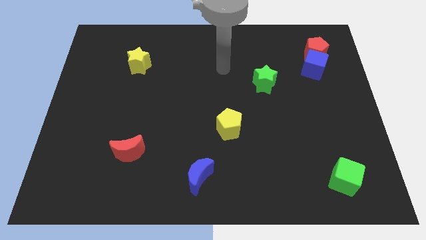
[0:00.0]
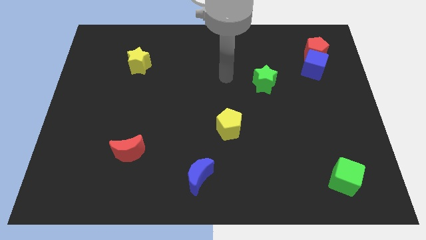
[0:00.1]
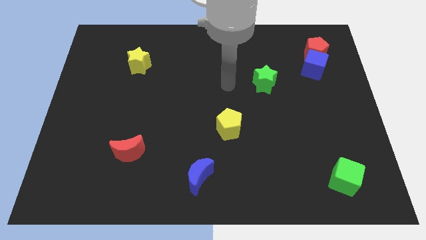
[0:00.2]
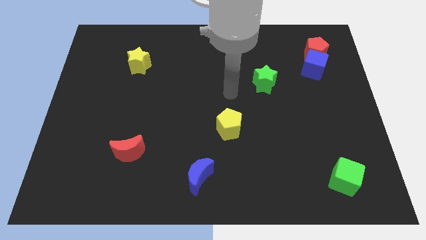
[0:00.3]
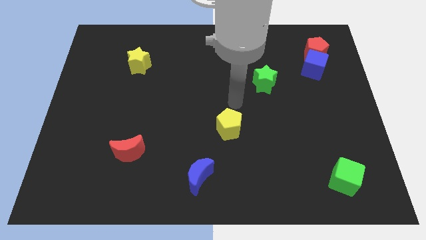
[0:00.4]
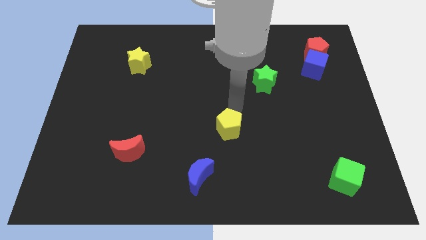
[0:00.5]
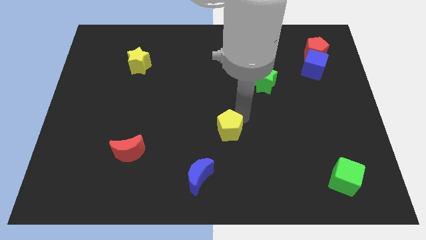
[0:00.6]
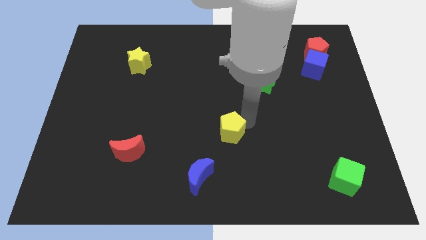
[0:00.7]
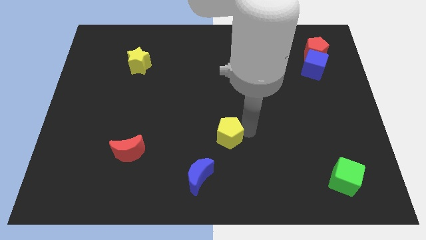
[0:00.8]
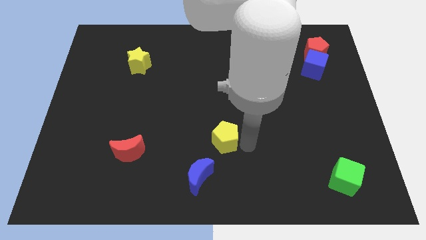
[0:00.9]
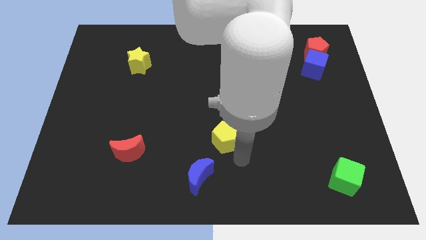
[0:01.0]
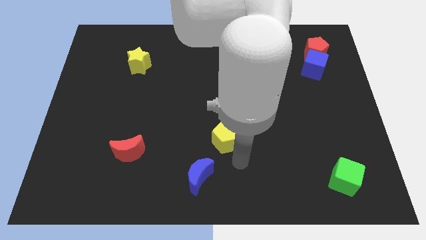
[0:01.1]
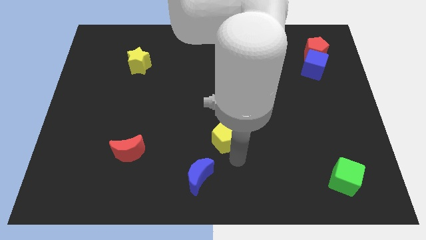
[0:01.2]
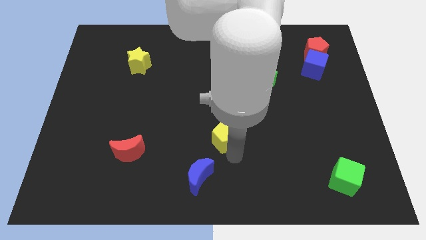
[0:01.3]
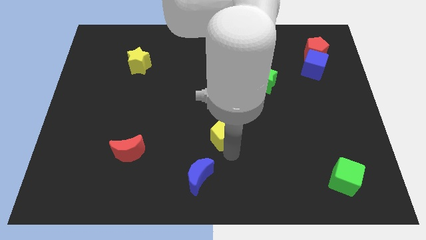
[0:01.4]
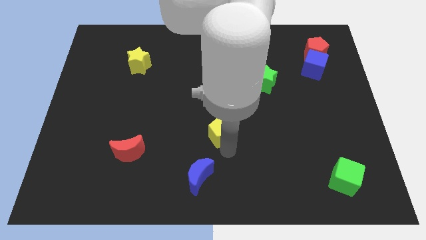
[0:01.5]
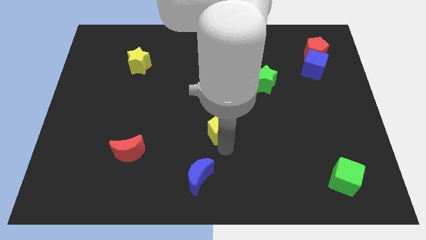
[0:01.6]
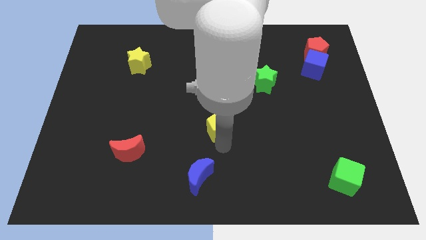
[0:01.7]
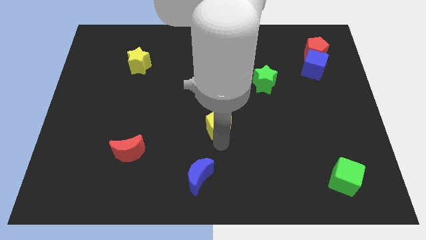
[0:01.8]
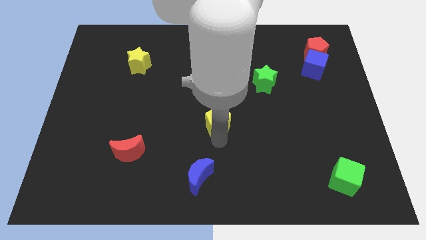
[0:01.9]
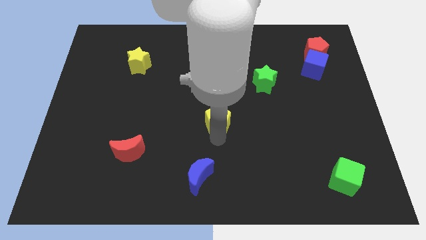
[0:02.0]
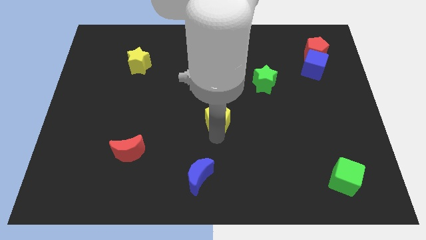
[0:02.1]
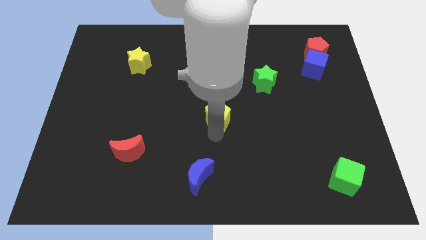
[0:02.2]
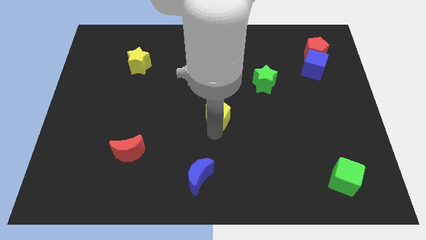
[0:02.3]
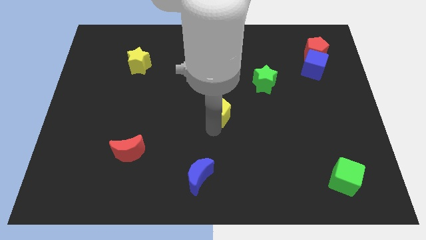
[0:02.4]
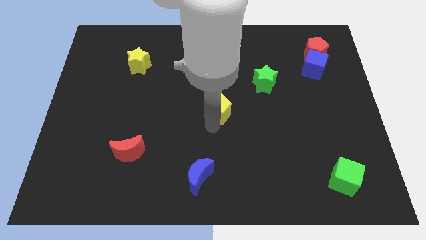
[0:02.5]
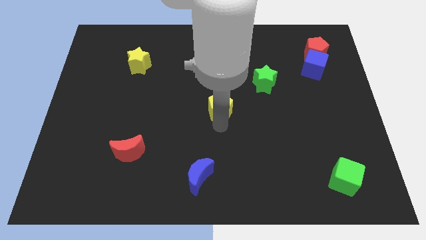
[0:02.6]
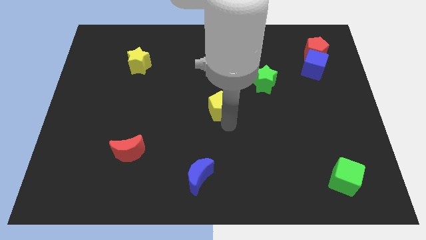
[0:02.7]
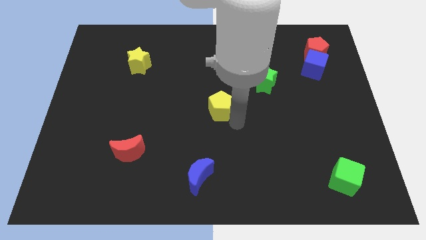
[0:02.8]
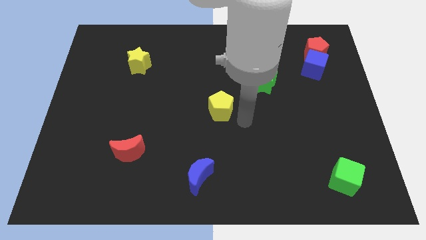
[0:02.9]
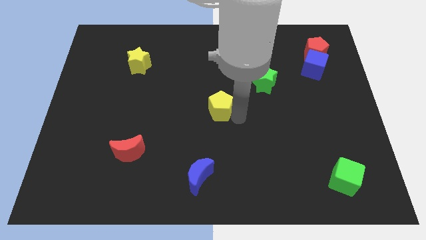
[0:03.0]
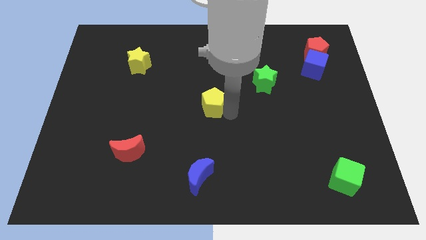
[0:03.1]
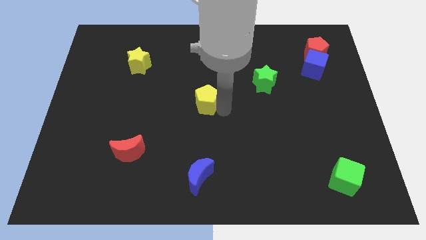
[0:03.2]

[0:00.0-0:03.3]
push the yellow pentagon diagonally up and left a little

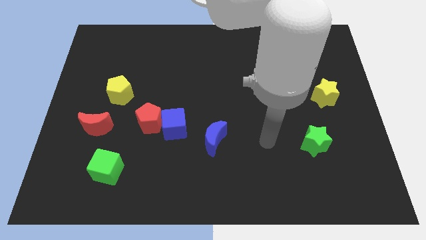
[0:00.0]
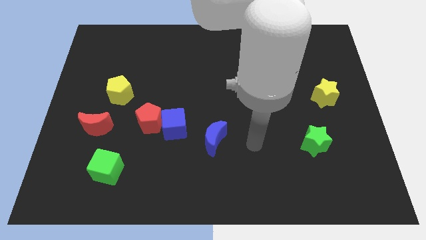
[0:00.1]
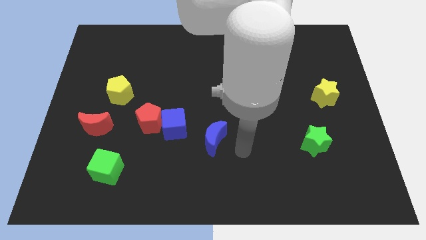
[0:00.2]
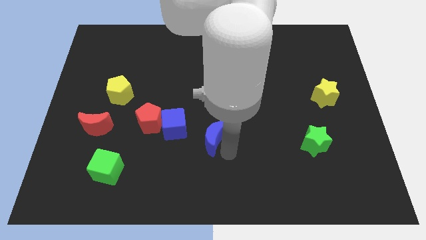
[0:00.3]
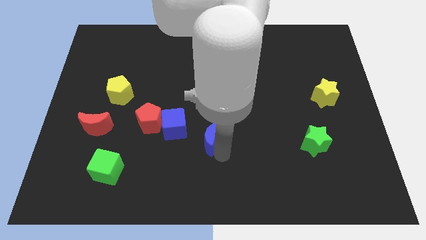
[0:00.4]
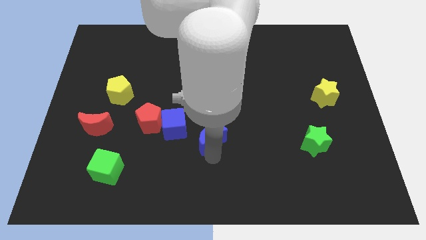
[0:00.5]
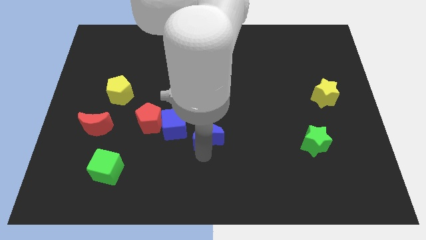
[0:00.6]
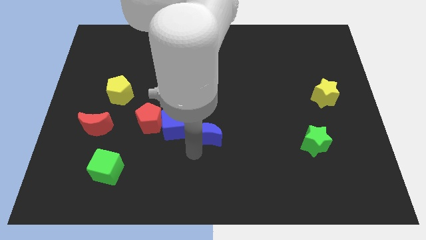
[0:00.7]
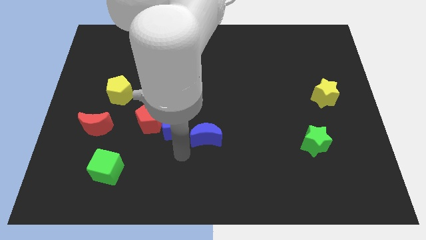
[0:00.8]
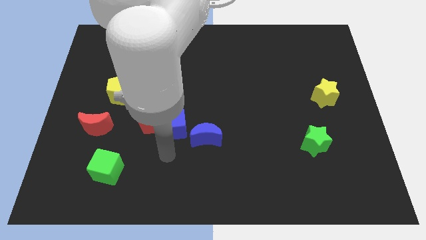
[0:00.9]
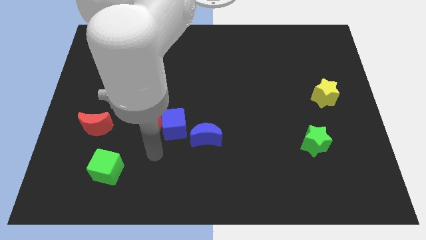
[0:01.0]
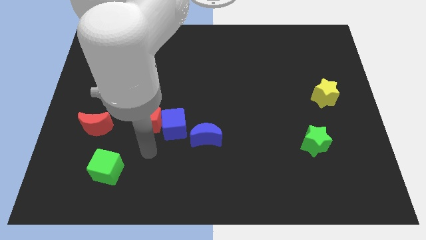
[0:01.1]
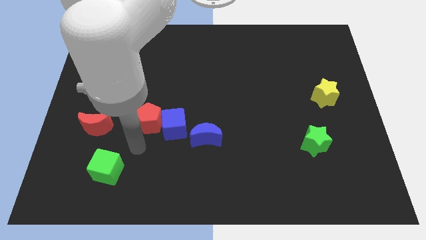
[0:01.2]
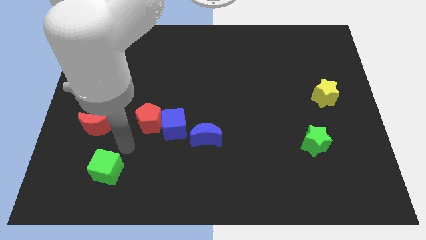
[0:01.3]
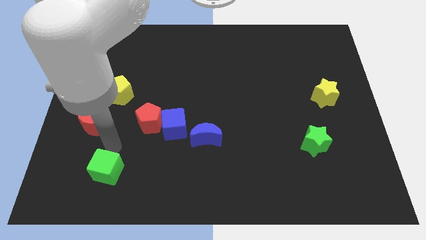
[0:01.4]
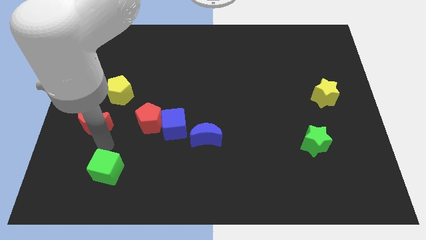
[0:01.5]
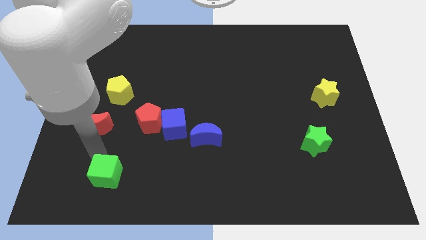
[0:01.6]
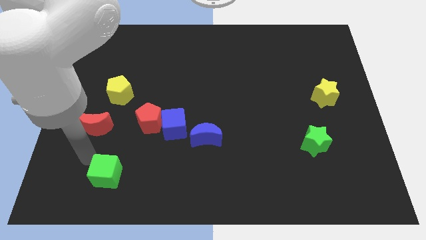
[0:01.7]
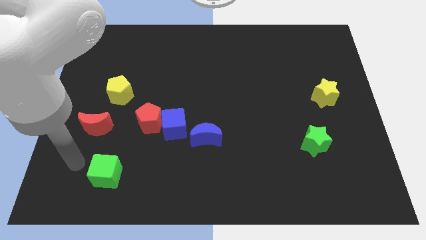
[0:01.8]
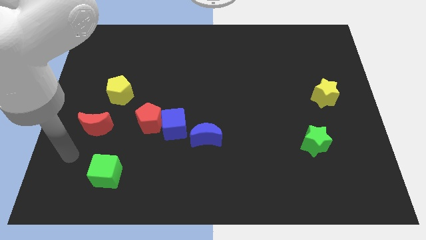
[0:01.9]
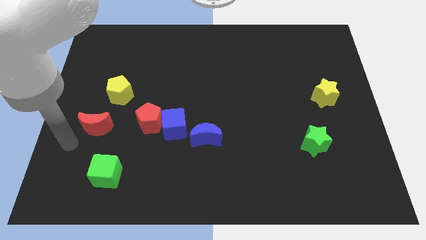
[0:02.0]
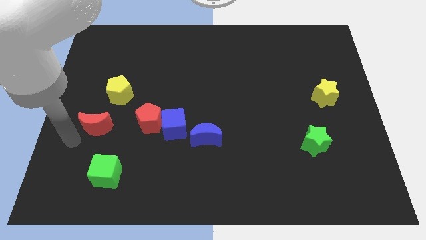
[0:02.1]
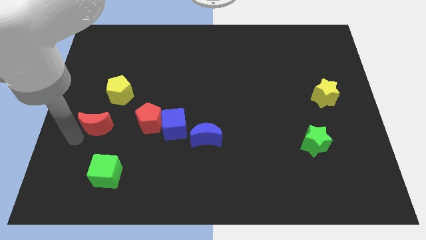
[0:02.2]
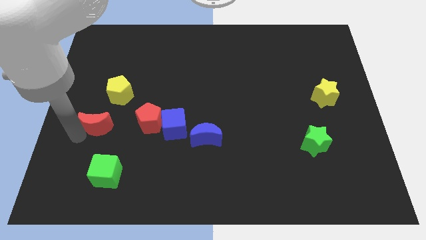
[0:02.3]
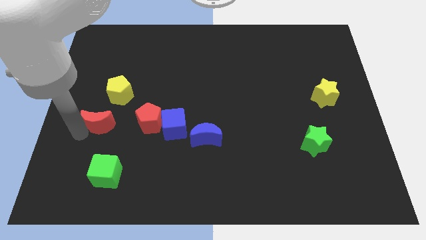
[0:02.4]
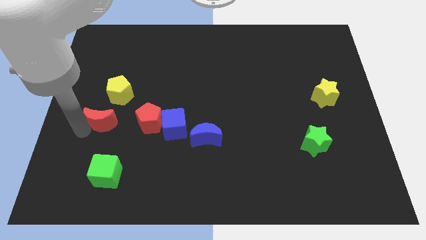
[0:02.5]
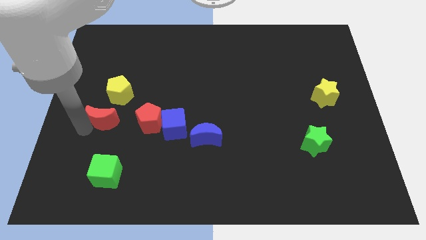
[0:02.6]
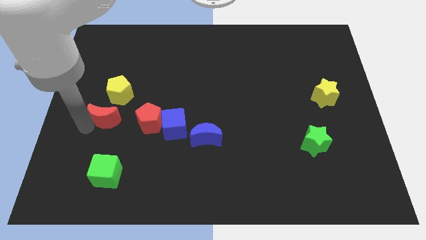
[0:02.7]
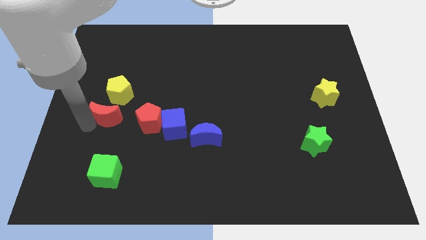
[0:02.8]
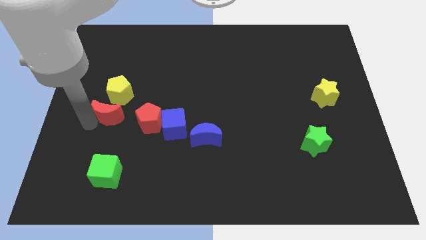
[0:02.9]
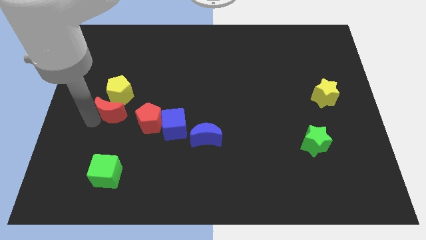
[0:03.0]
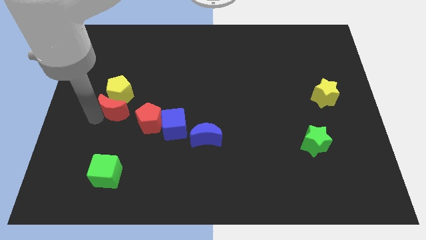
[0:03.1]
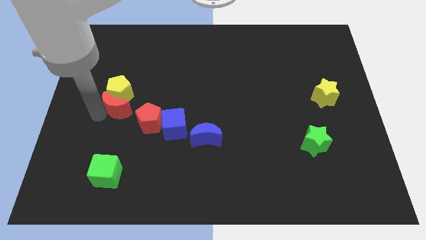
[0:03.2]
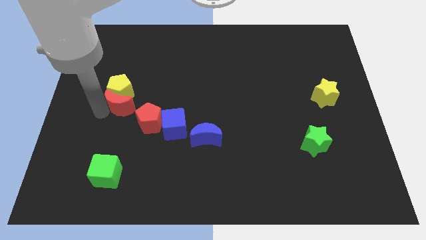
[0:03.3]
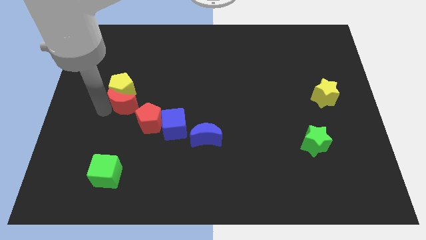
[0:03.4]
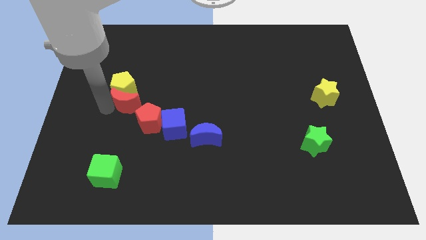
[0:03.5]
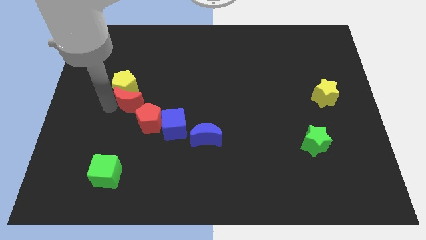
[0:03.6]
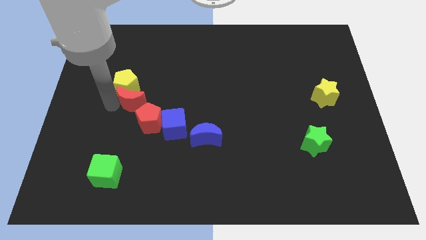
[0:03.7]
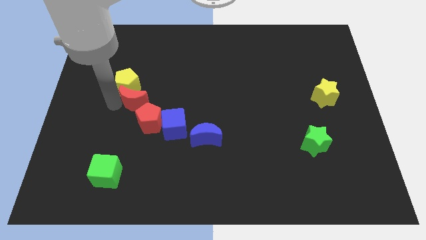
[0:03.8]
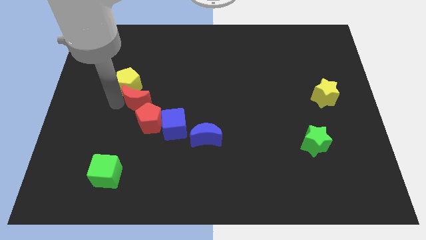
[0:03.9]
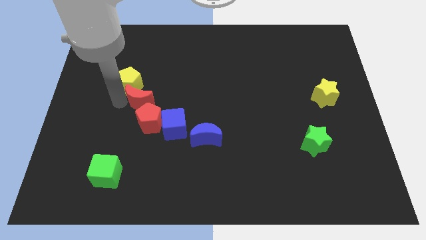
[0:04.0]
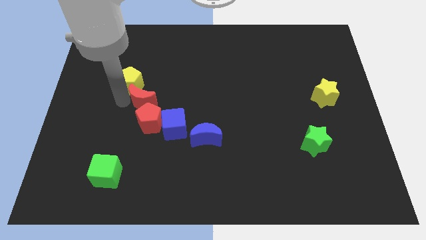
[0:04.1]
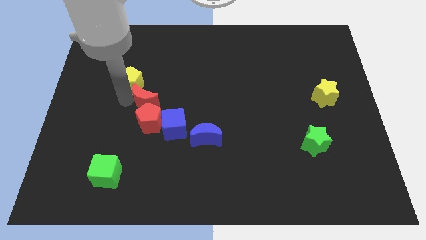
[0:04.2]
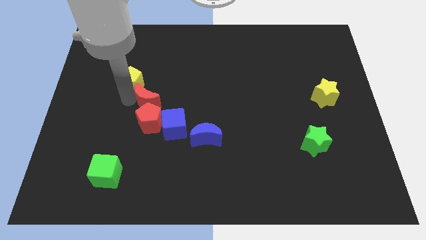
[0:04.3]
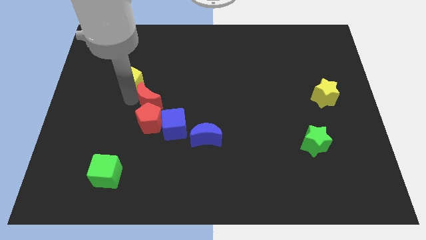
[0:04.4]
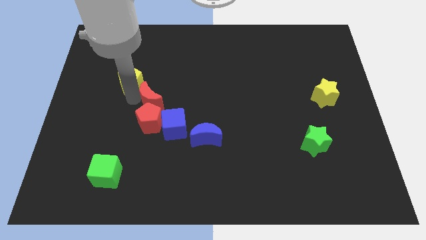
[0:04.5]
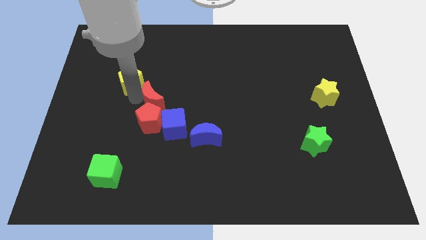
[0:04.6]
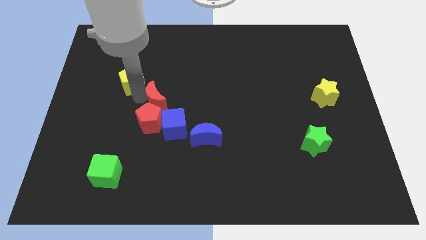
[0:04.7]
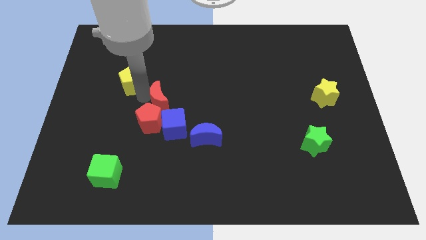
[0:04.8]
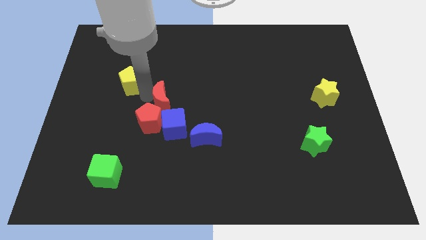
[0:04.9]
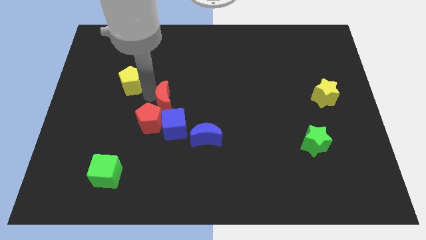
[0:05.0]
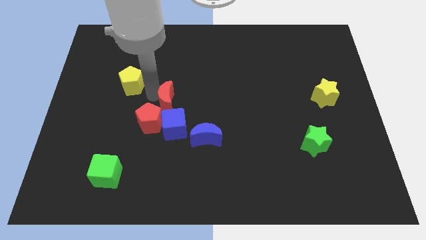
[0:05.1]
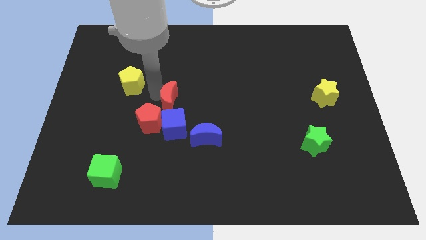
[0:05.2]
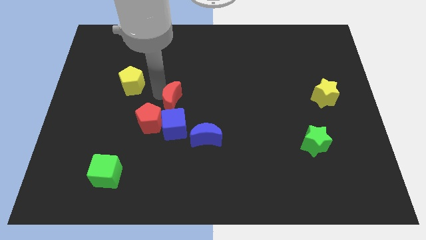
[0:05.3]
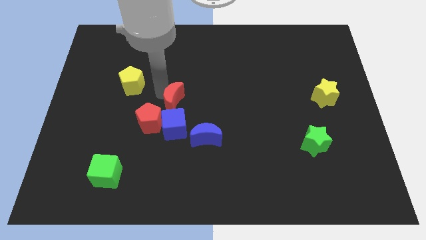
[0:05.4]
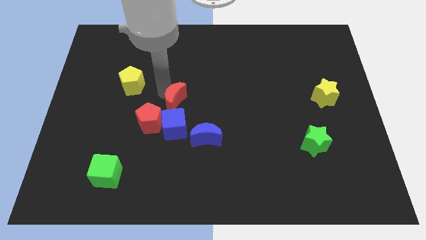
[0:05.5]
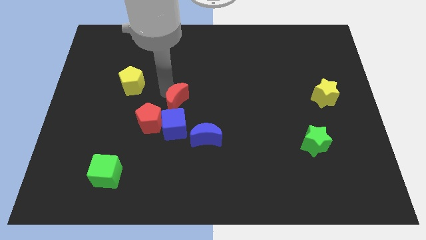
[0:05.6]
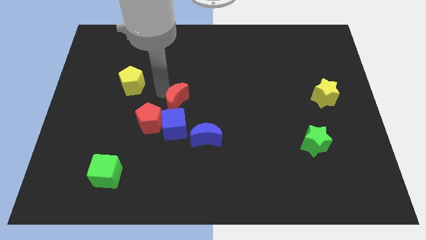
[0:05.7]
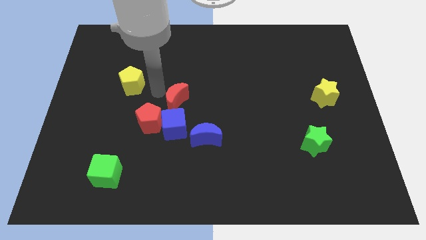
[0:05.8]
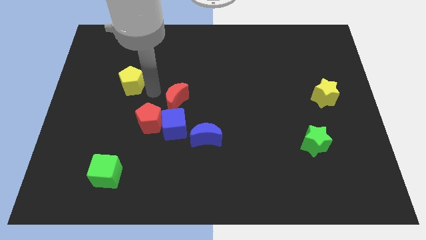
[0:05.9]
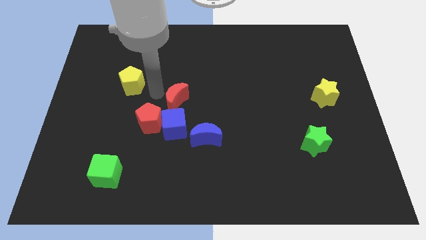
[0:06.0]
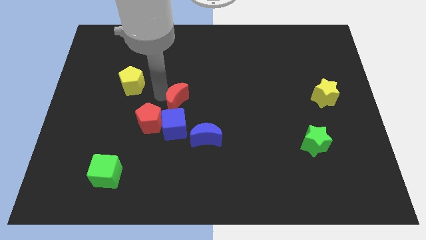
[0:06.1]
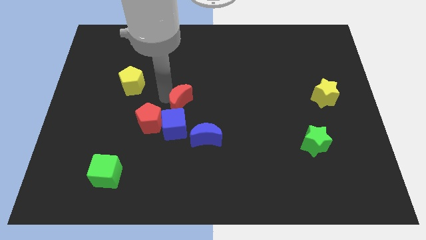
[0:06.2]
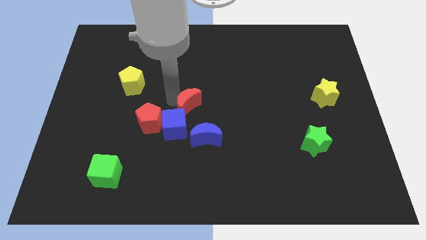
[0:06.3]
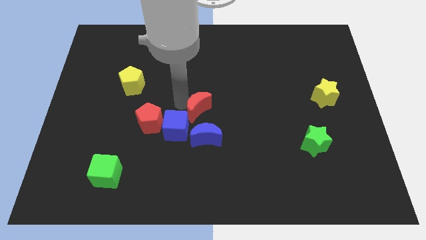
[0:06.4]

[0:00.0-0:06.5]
push the red moon to the right
